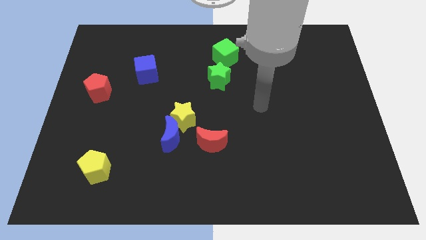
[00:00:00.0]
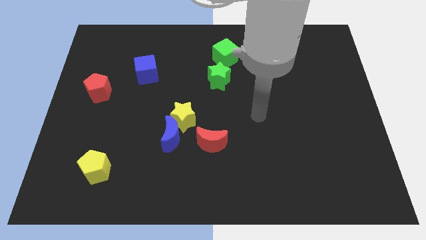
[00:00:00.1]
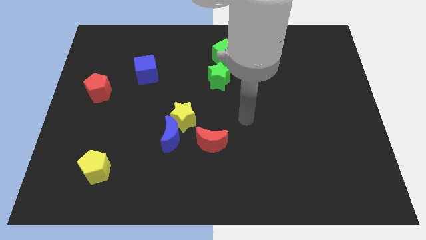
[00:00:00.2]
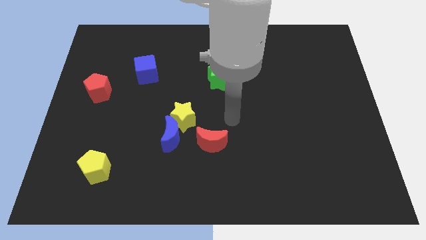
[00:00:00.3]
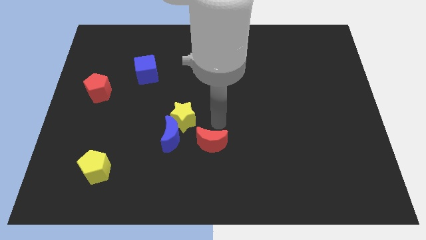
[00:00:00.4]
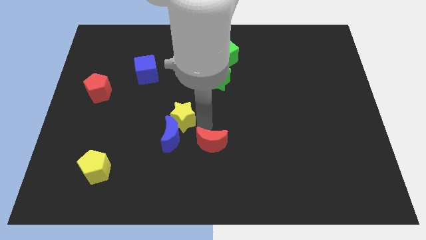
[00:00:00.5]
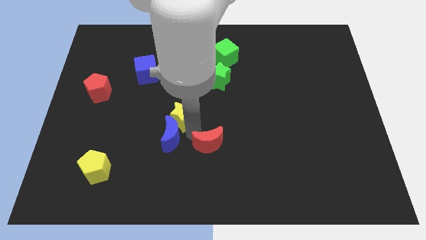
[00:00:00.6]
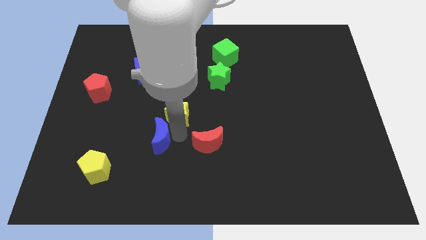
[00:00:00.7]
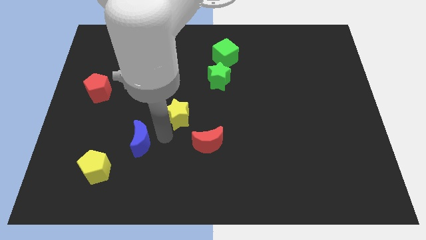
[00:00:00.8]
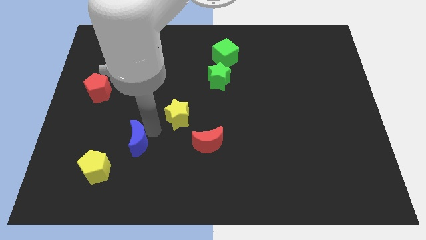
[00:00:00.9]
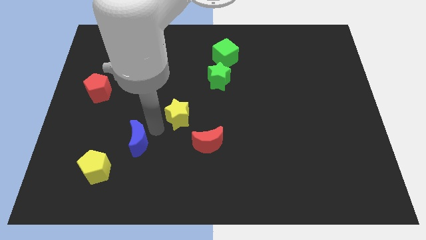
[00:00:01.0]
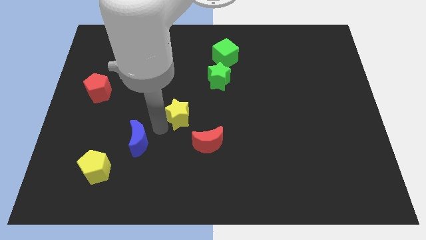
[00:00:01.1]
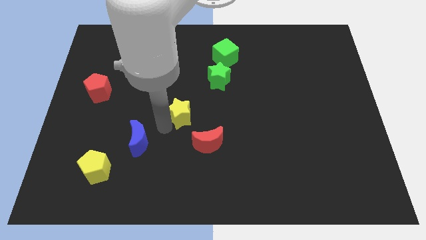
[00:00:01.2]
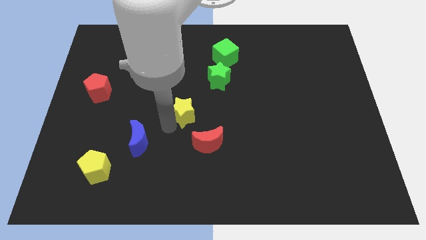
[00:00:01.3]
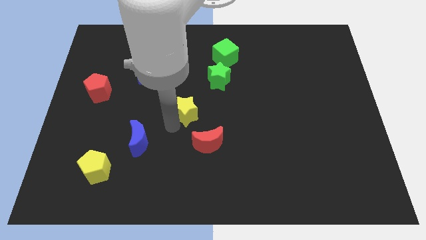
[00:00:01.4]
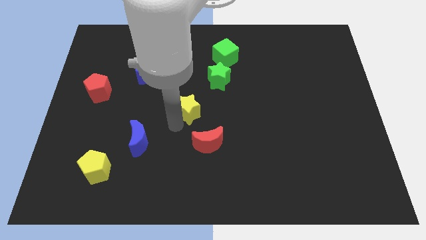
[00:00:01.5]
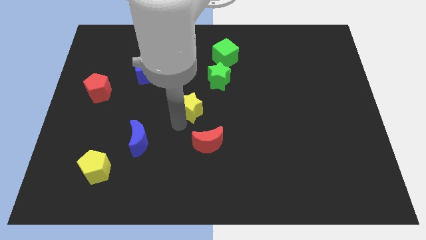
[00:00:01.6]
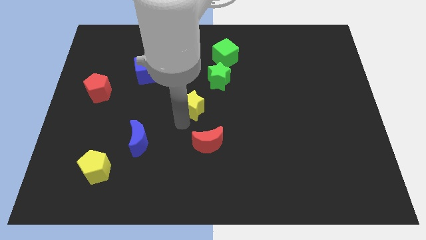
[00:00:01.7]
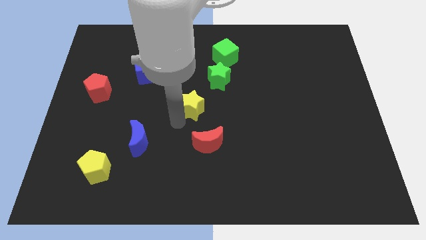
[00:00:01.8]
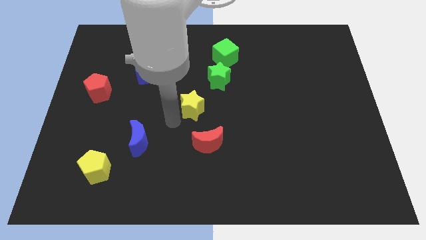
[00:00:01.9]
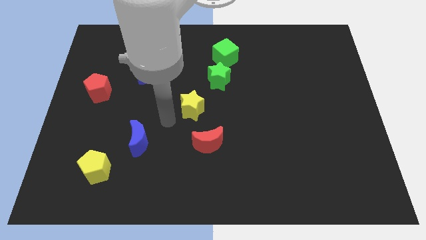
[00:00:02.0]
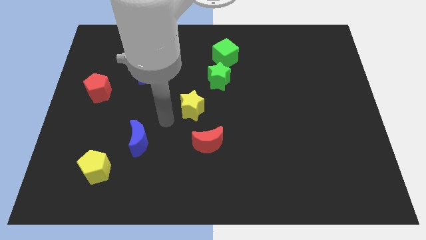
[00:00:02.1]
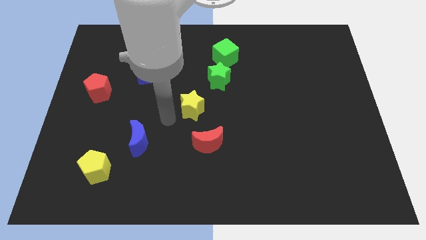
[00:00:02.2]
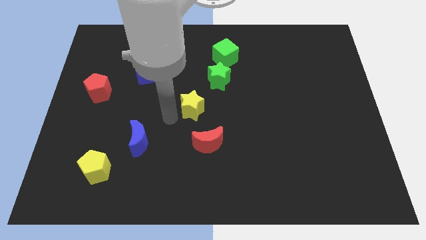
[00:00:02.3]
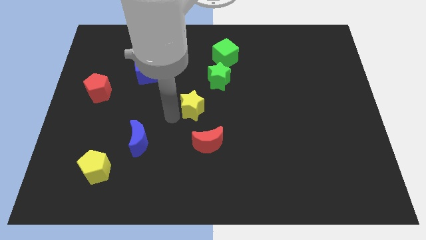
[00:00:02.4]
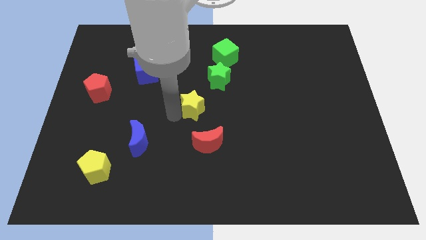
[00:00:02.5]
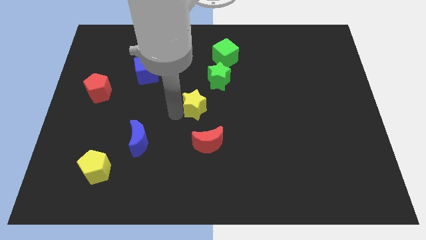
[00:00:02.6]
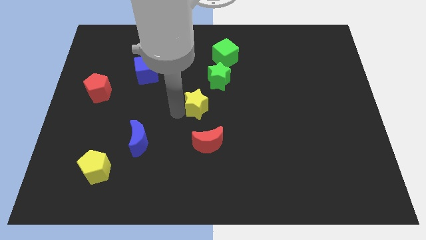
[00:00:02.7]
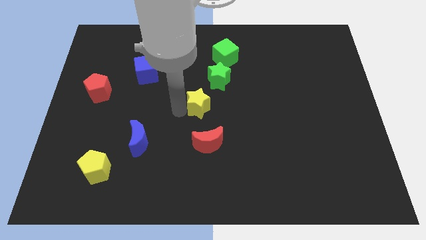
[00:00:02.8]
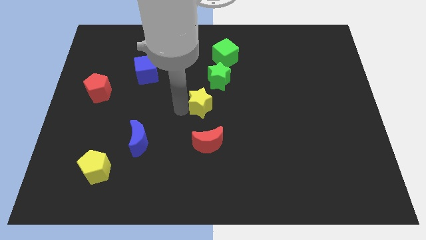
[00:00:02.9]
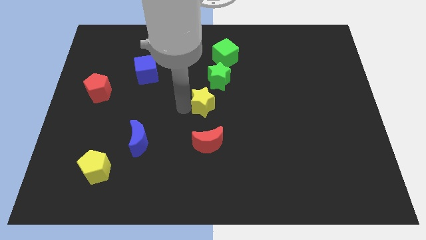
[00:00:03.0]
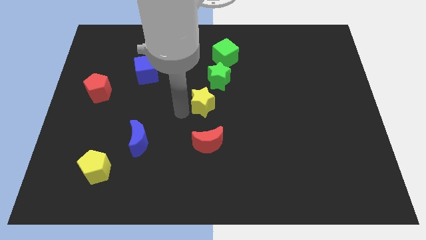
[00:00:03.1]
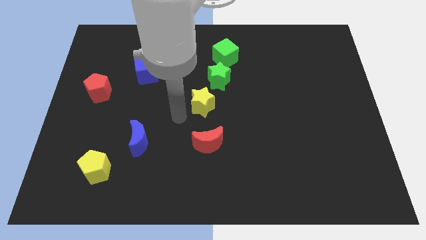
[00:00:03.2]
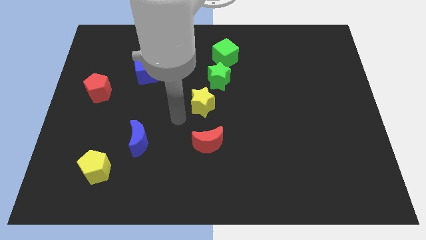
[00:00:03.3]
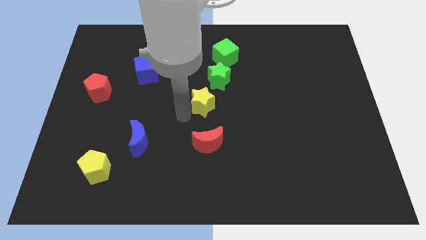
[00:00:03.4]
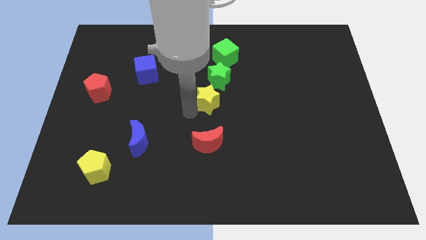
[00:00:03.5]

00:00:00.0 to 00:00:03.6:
slide the yellow star up and to the right diagonally a little

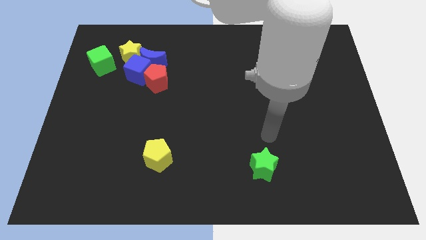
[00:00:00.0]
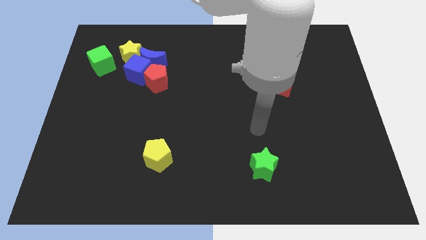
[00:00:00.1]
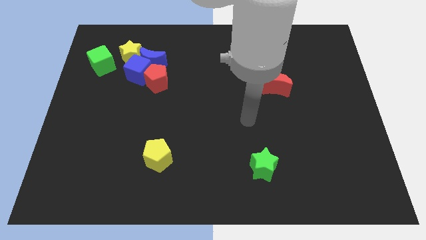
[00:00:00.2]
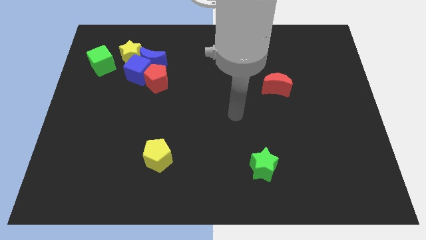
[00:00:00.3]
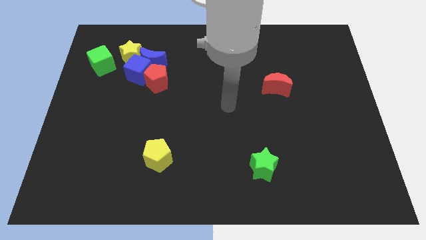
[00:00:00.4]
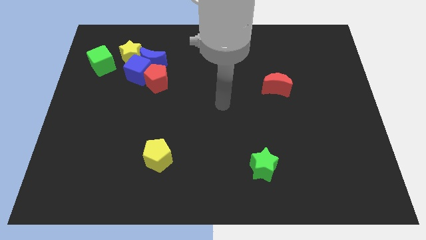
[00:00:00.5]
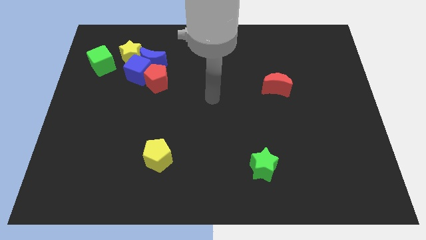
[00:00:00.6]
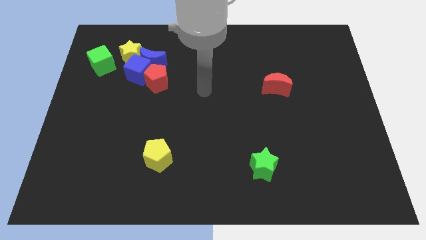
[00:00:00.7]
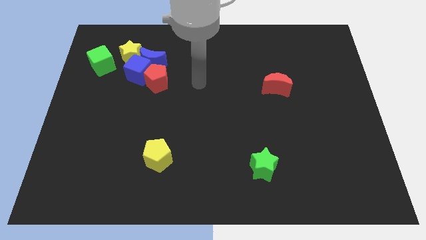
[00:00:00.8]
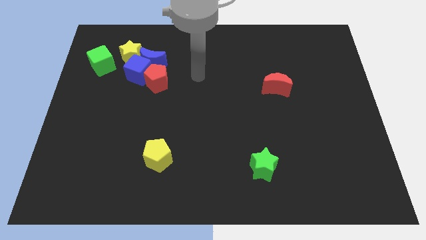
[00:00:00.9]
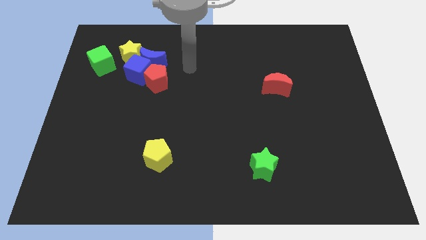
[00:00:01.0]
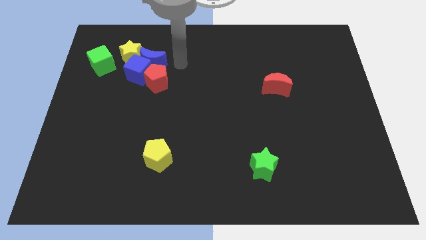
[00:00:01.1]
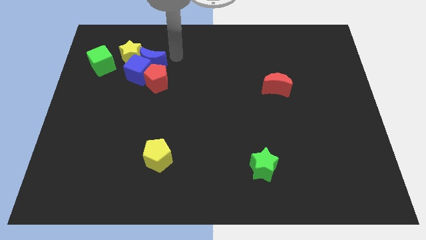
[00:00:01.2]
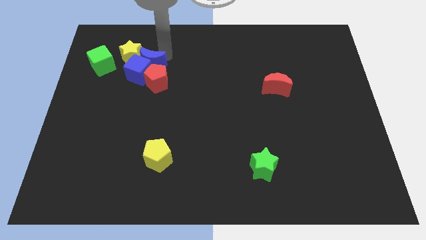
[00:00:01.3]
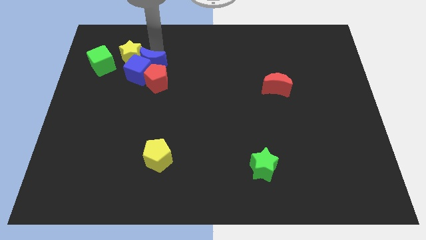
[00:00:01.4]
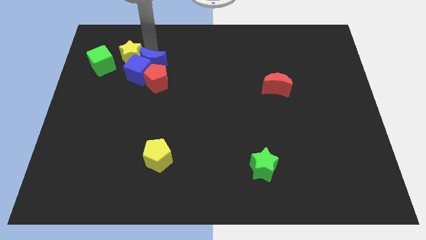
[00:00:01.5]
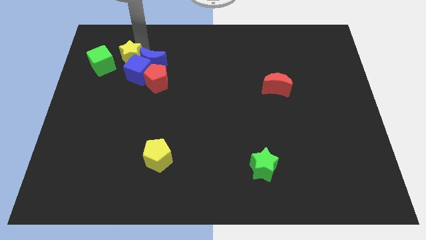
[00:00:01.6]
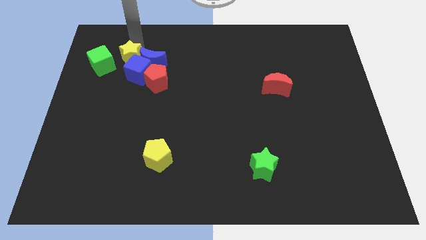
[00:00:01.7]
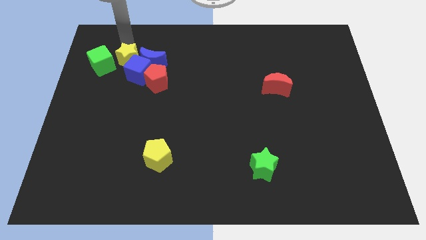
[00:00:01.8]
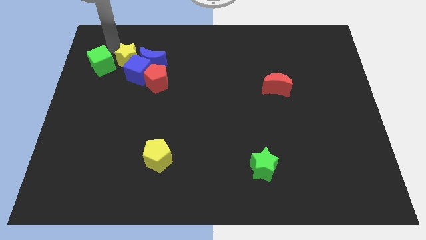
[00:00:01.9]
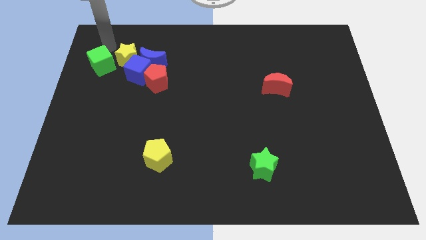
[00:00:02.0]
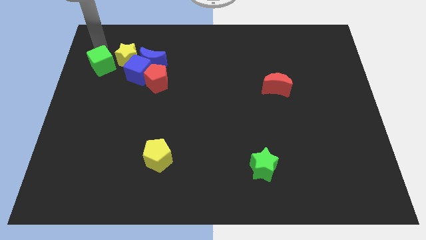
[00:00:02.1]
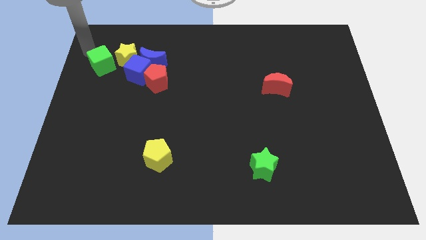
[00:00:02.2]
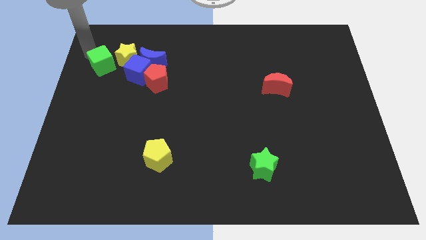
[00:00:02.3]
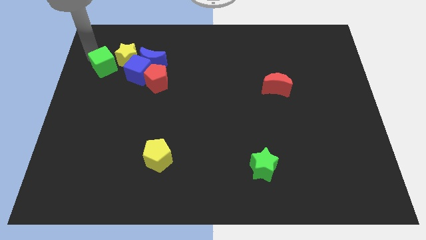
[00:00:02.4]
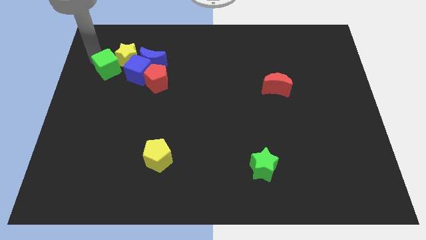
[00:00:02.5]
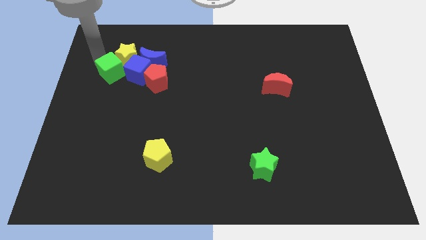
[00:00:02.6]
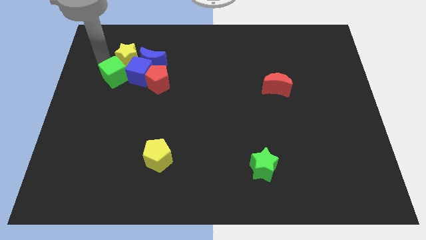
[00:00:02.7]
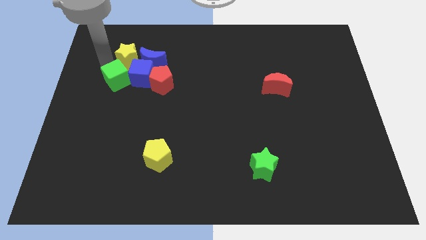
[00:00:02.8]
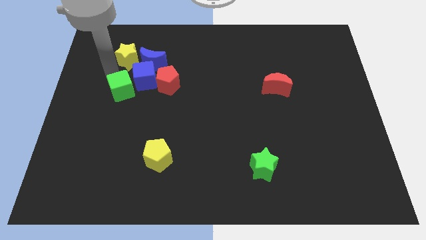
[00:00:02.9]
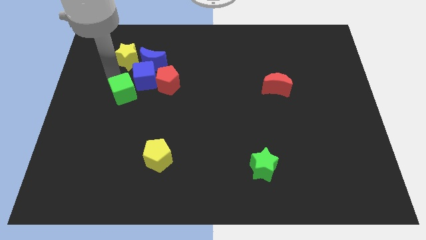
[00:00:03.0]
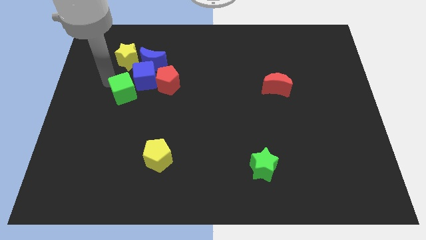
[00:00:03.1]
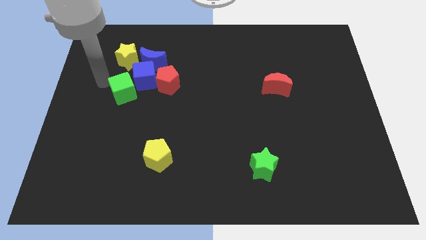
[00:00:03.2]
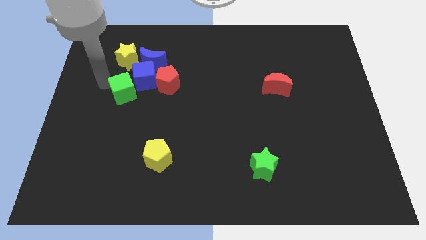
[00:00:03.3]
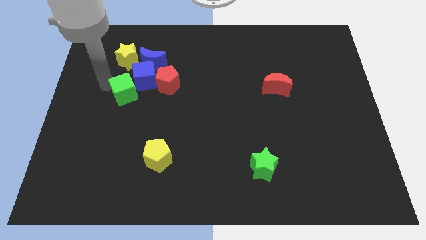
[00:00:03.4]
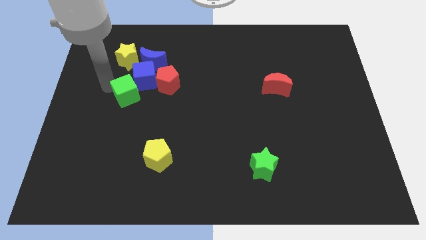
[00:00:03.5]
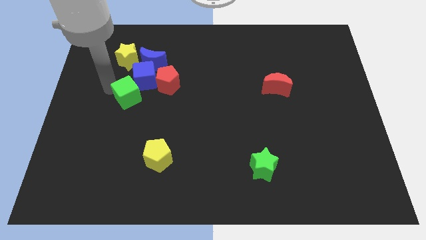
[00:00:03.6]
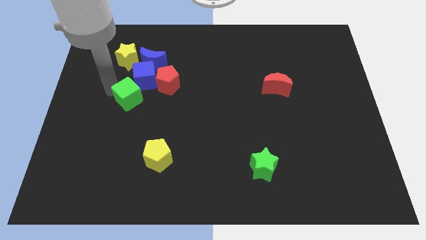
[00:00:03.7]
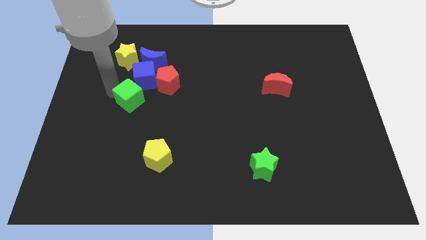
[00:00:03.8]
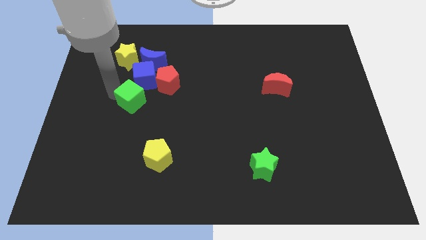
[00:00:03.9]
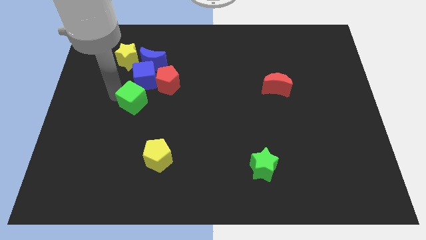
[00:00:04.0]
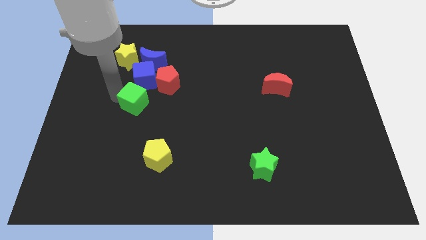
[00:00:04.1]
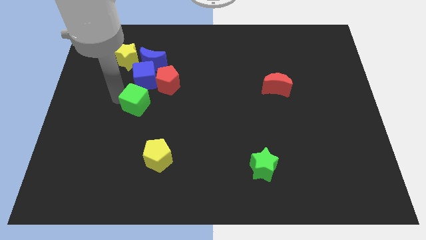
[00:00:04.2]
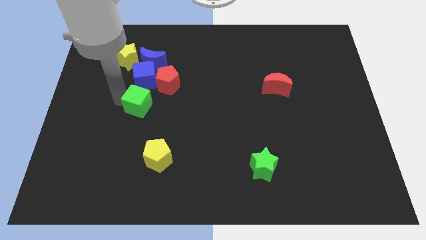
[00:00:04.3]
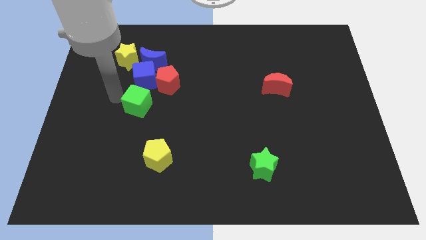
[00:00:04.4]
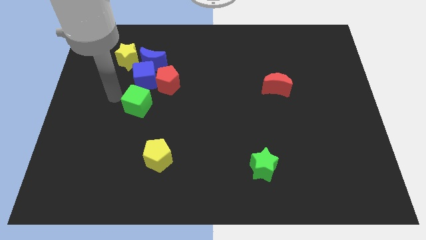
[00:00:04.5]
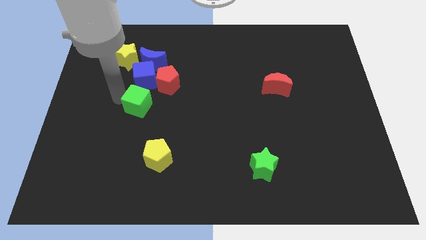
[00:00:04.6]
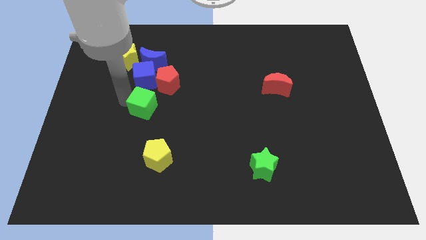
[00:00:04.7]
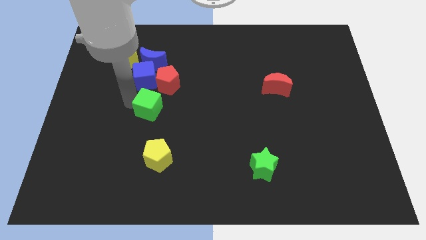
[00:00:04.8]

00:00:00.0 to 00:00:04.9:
push the green cube diagonally downwards and to the right
